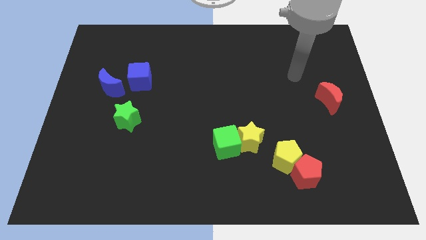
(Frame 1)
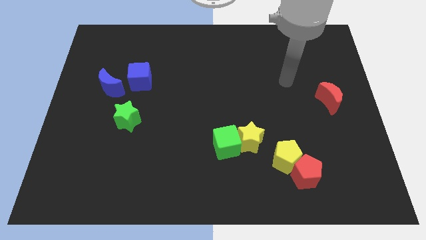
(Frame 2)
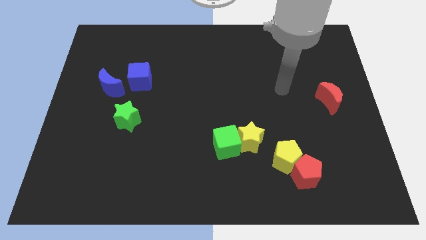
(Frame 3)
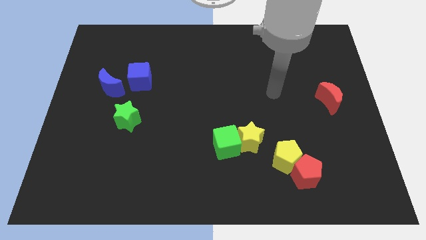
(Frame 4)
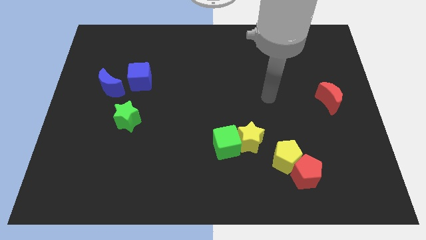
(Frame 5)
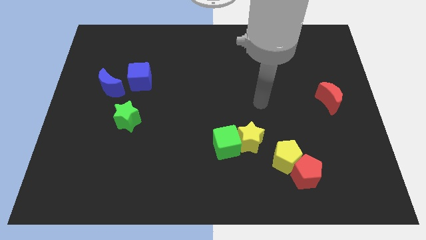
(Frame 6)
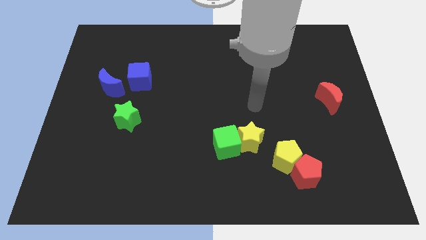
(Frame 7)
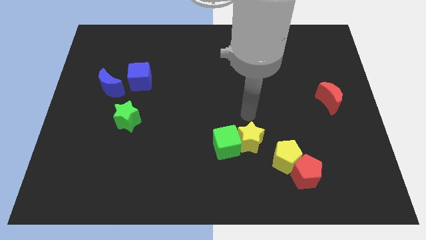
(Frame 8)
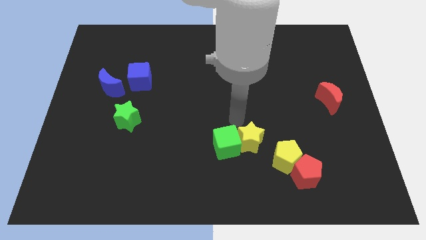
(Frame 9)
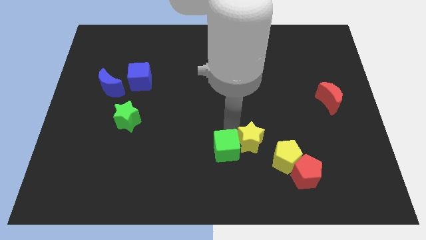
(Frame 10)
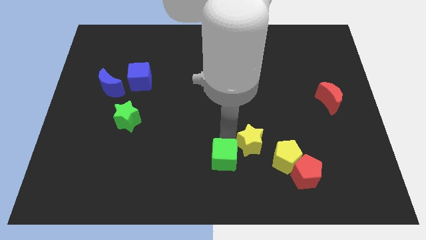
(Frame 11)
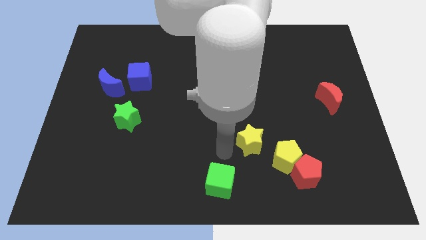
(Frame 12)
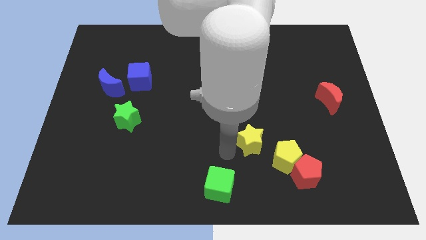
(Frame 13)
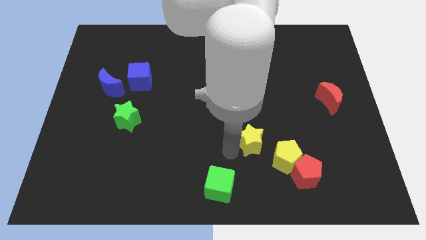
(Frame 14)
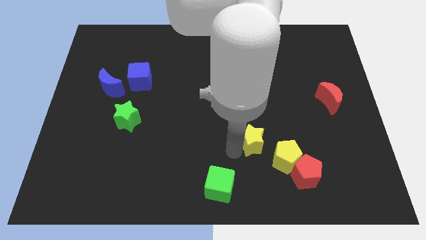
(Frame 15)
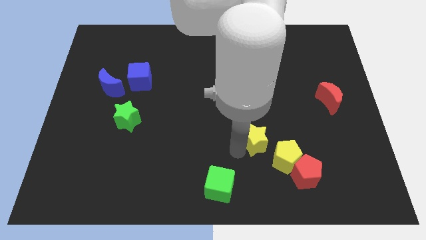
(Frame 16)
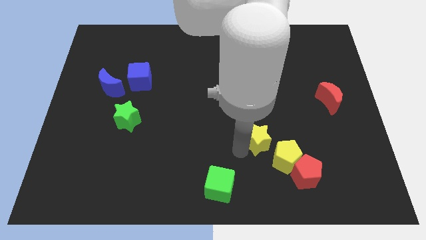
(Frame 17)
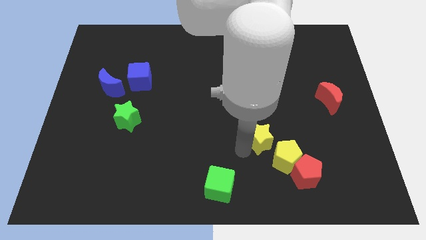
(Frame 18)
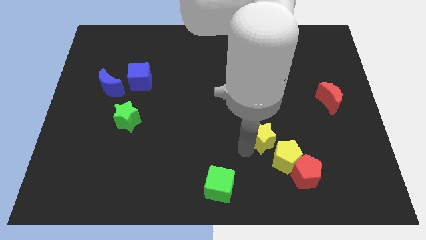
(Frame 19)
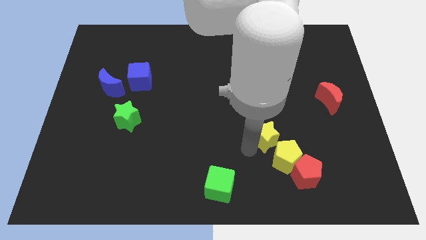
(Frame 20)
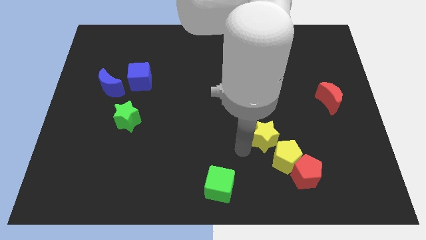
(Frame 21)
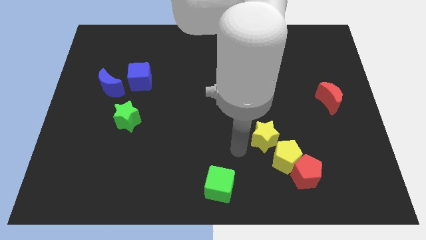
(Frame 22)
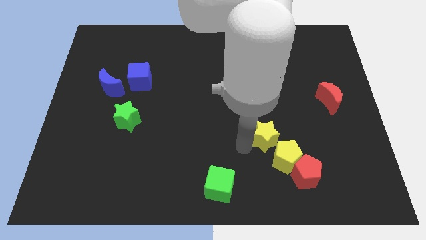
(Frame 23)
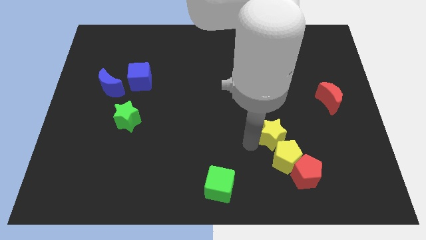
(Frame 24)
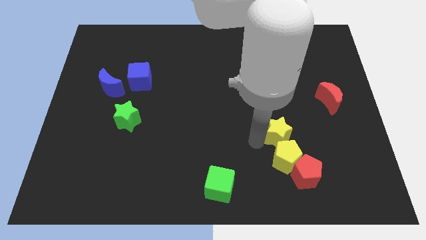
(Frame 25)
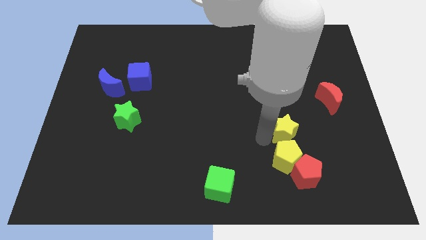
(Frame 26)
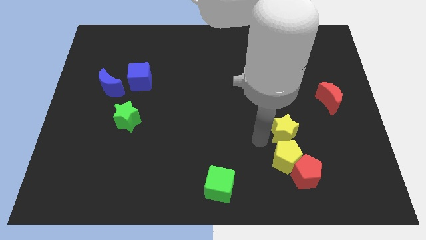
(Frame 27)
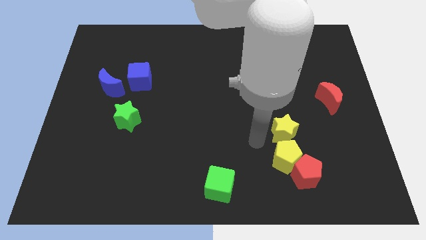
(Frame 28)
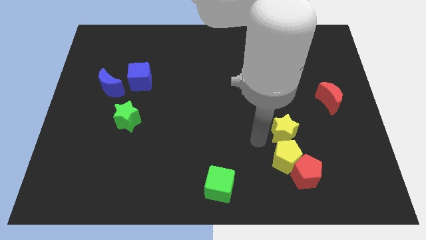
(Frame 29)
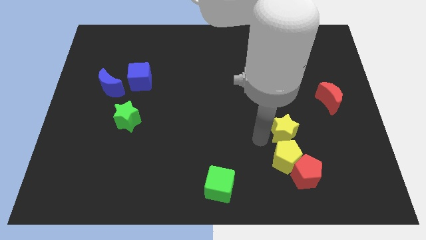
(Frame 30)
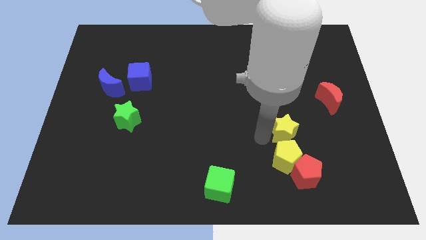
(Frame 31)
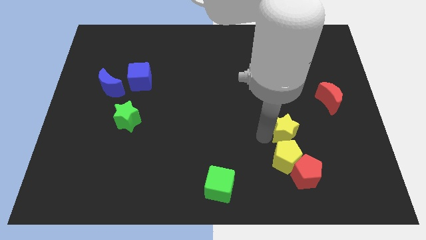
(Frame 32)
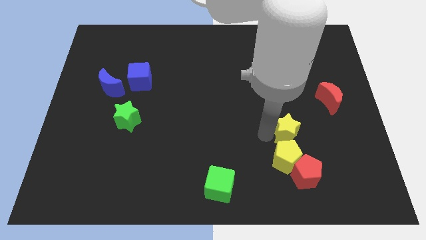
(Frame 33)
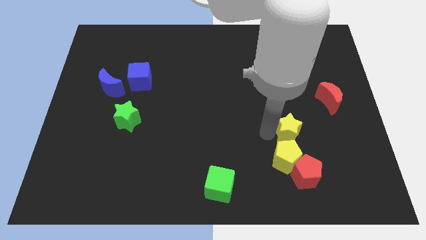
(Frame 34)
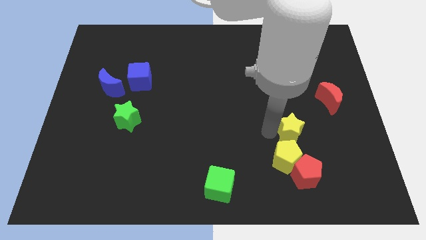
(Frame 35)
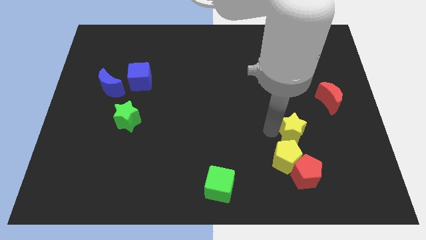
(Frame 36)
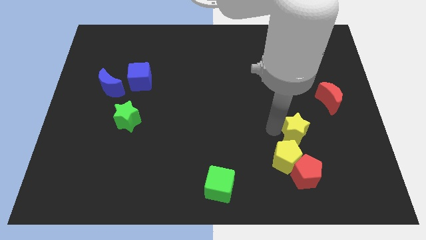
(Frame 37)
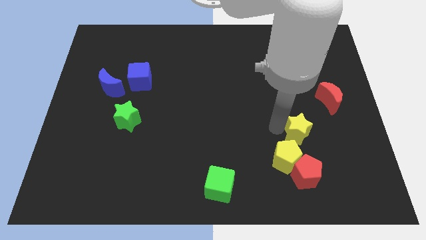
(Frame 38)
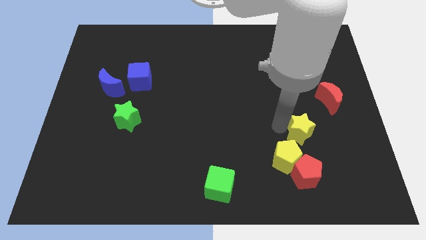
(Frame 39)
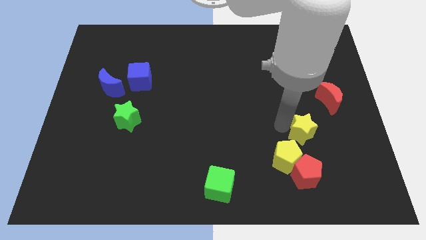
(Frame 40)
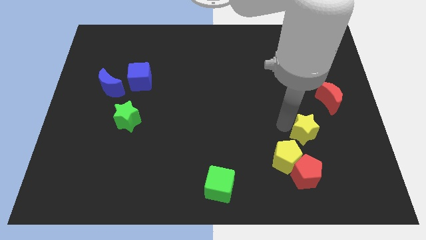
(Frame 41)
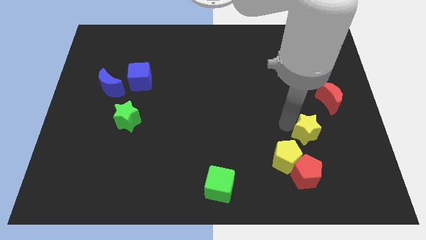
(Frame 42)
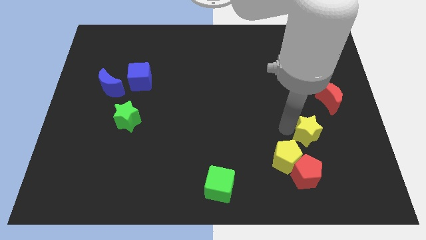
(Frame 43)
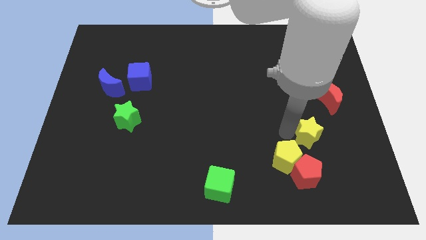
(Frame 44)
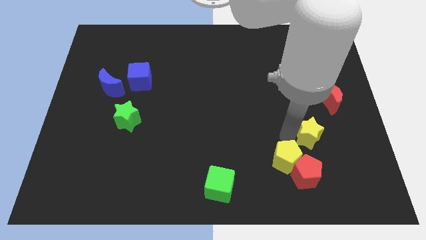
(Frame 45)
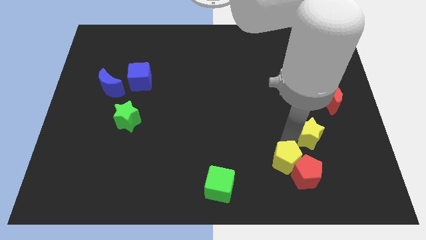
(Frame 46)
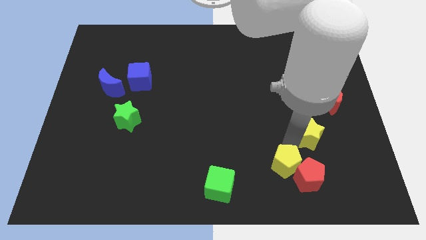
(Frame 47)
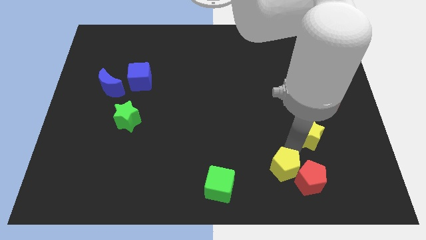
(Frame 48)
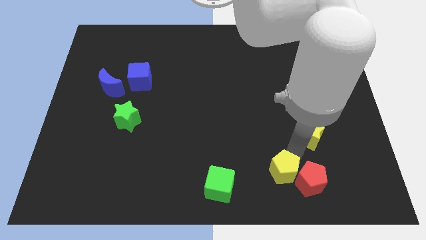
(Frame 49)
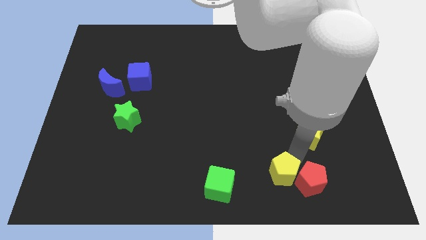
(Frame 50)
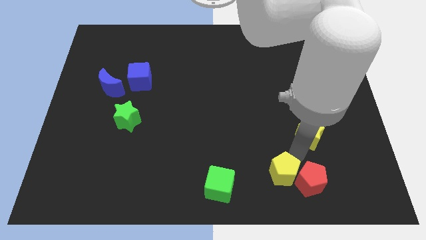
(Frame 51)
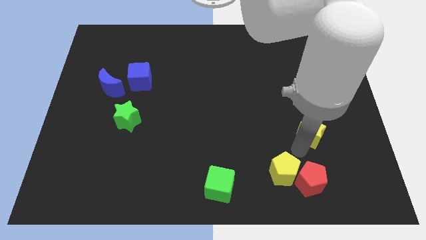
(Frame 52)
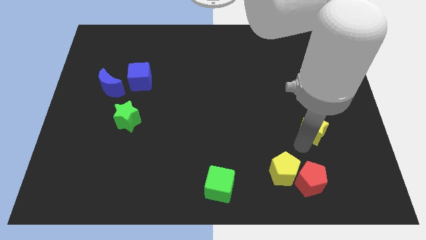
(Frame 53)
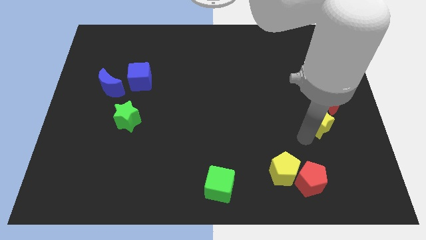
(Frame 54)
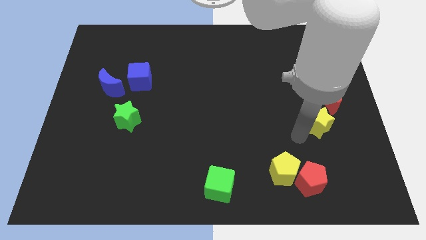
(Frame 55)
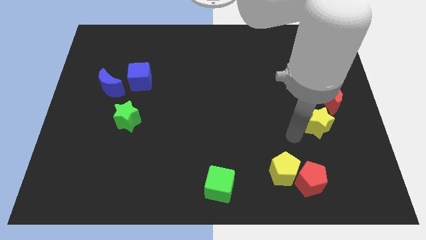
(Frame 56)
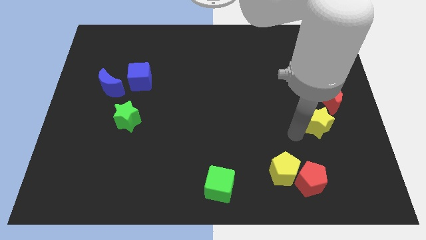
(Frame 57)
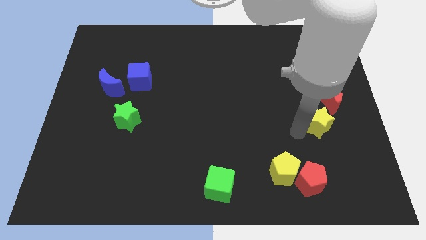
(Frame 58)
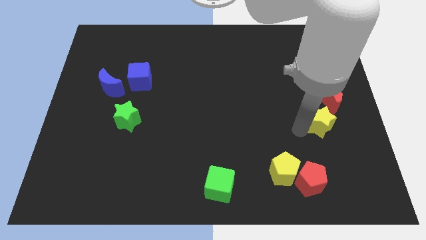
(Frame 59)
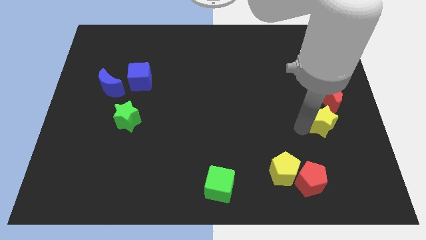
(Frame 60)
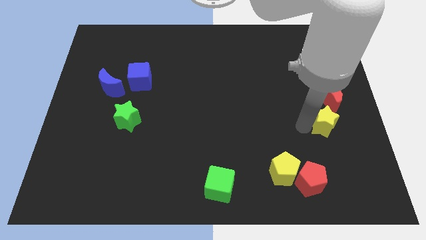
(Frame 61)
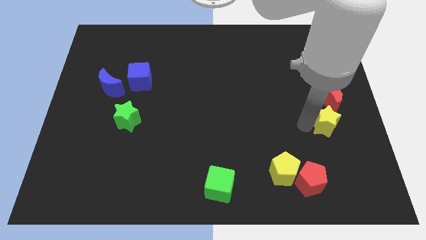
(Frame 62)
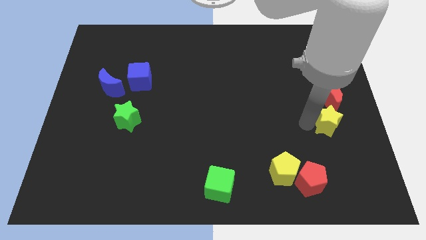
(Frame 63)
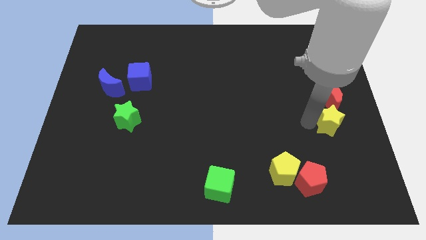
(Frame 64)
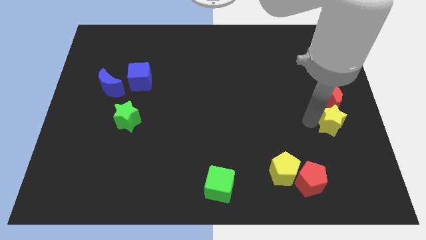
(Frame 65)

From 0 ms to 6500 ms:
push the yellow star to the right side of the board

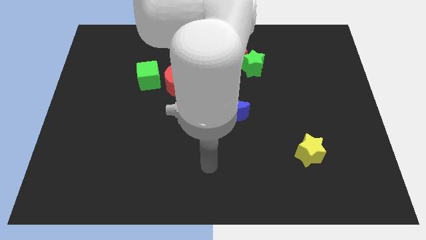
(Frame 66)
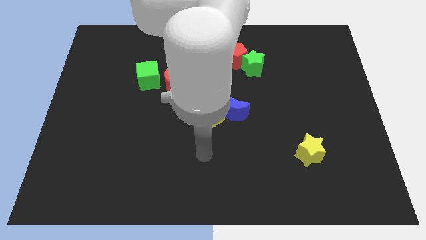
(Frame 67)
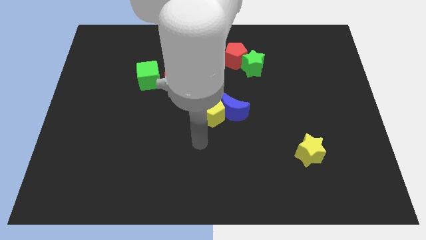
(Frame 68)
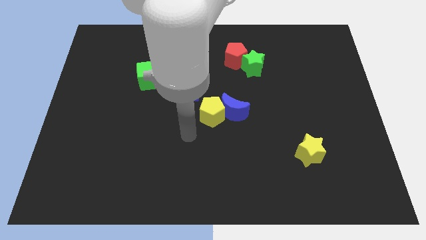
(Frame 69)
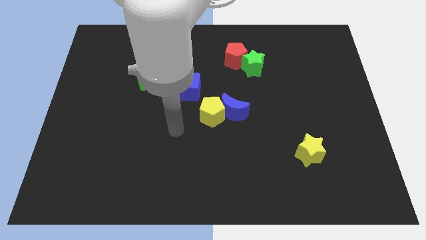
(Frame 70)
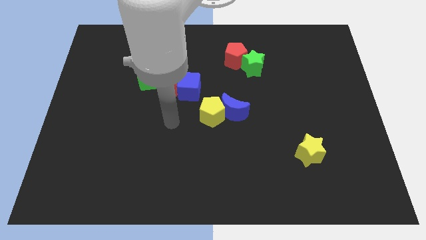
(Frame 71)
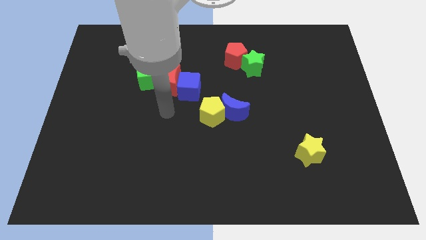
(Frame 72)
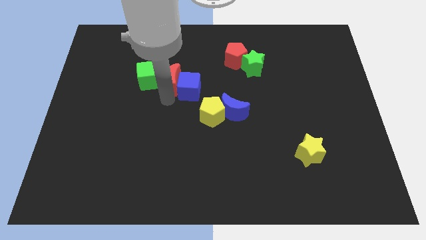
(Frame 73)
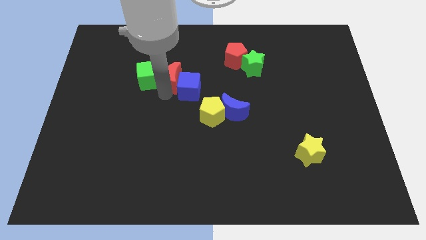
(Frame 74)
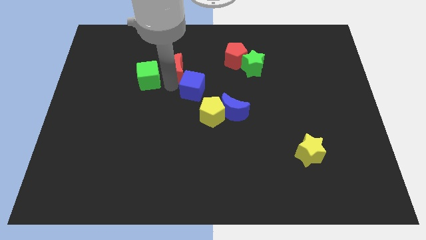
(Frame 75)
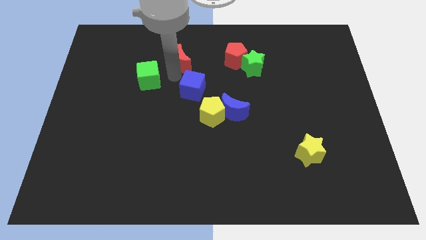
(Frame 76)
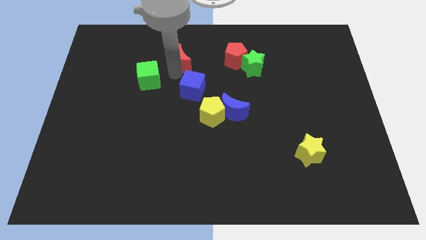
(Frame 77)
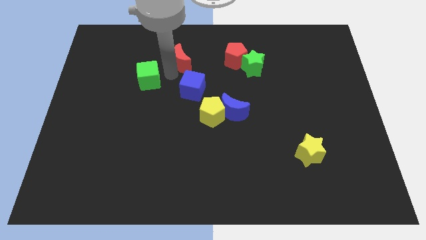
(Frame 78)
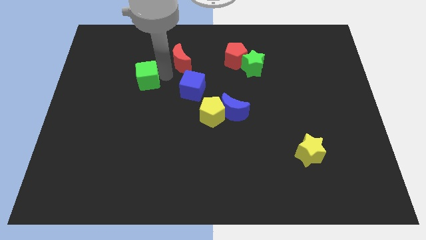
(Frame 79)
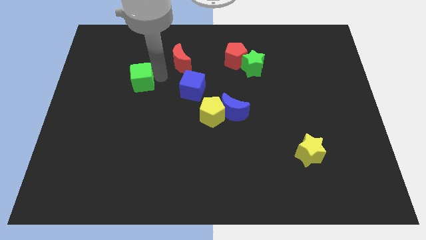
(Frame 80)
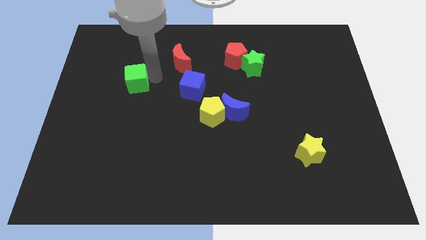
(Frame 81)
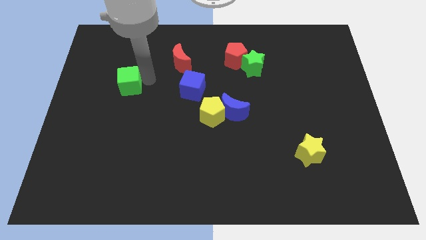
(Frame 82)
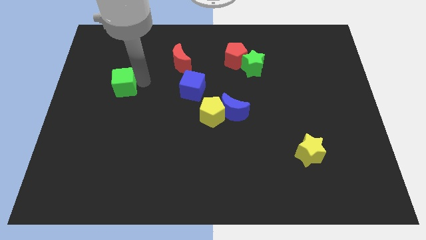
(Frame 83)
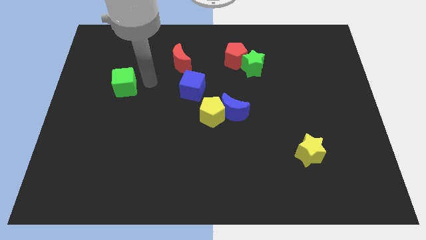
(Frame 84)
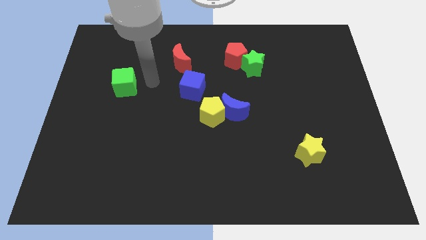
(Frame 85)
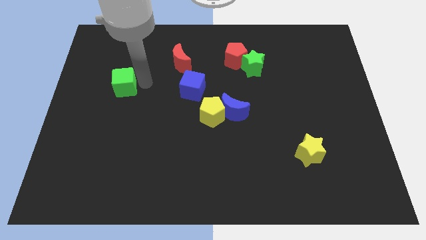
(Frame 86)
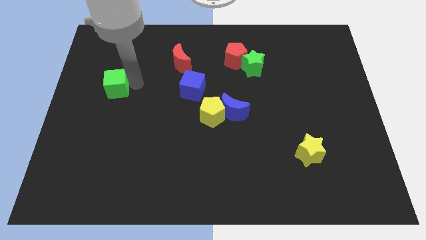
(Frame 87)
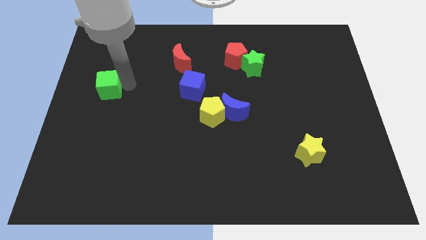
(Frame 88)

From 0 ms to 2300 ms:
push the green cube to the center left
